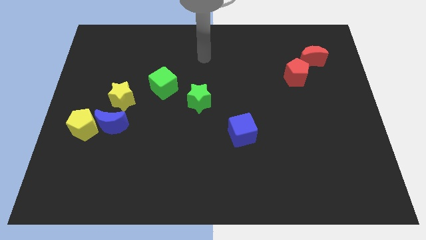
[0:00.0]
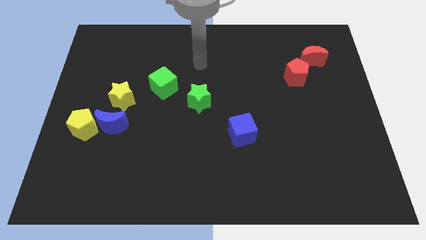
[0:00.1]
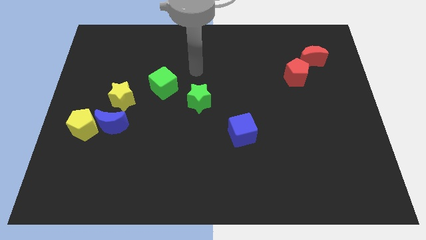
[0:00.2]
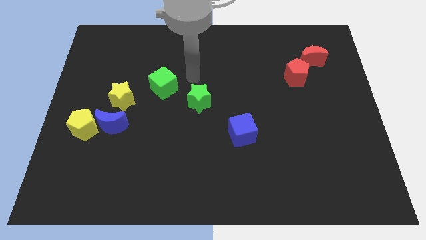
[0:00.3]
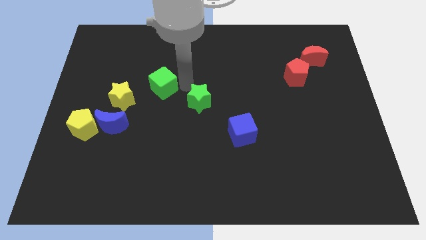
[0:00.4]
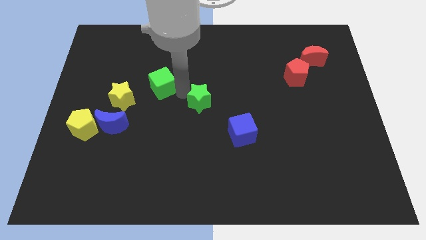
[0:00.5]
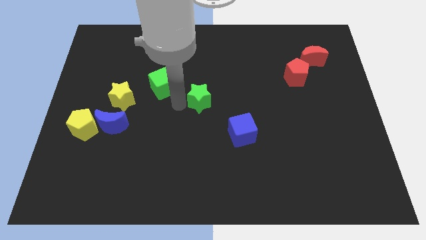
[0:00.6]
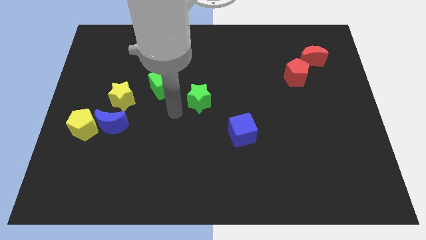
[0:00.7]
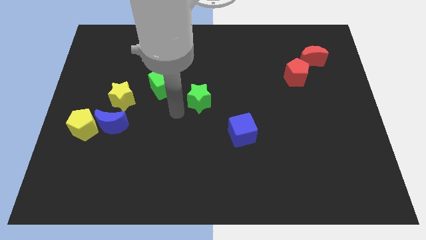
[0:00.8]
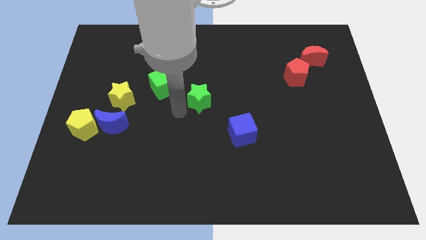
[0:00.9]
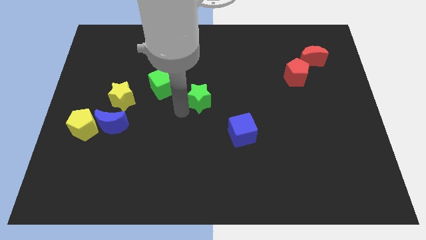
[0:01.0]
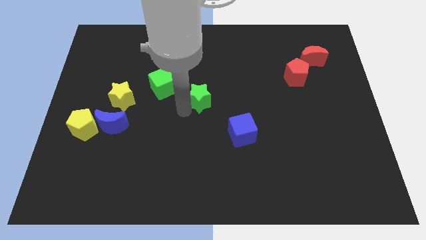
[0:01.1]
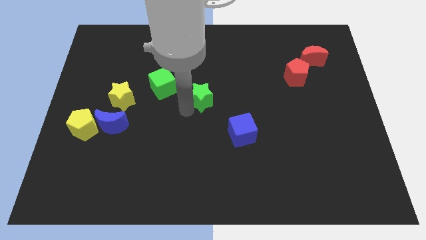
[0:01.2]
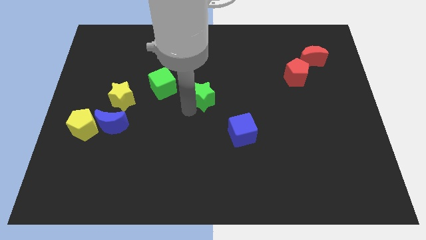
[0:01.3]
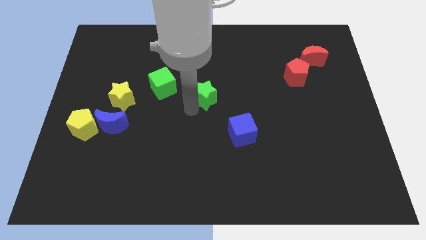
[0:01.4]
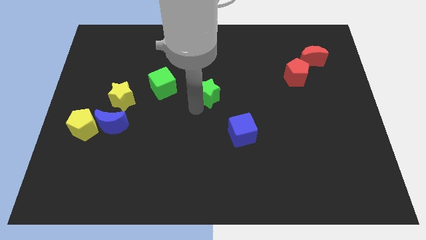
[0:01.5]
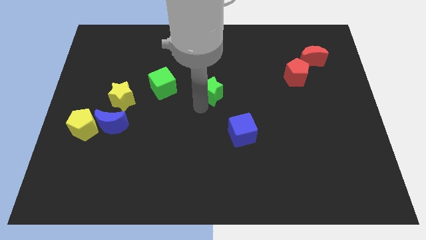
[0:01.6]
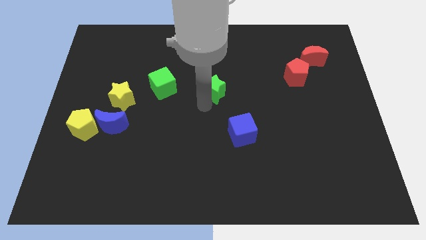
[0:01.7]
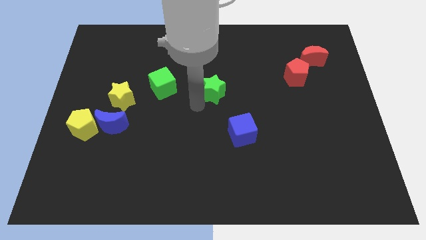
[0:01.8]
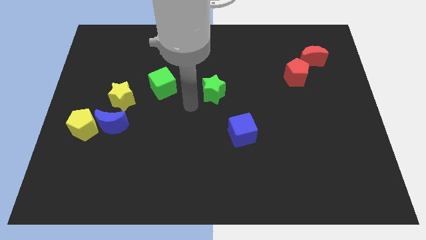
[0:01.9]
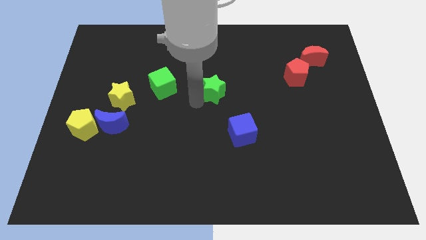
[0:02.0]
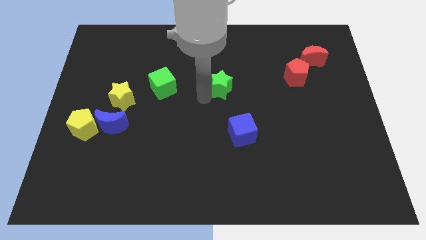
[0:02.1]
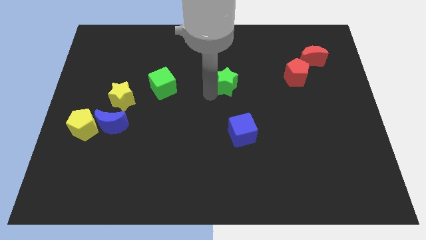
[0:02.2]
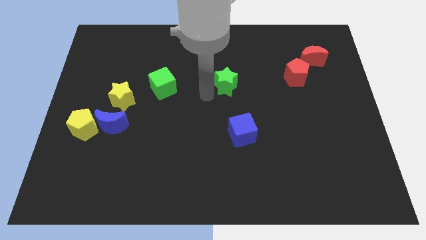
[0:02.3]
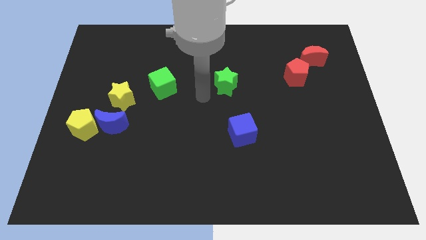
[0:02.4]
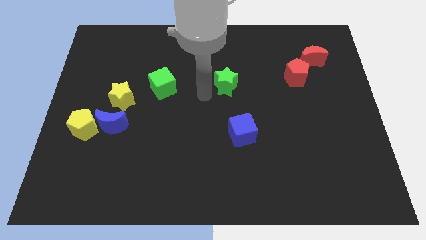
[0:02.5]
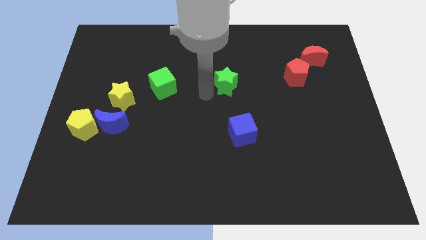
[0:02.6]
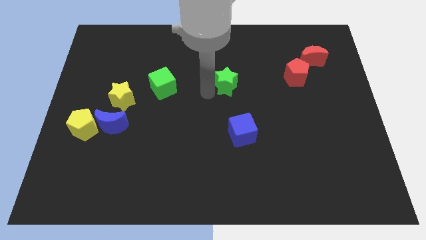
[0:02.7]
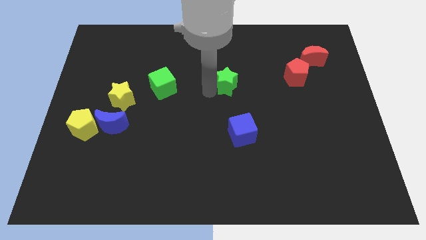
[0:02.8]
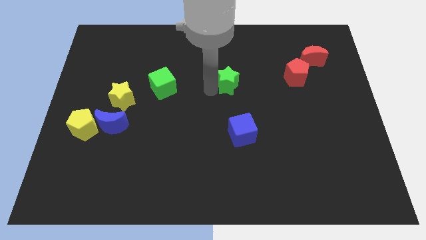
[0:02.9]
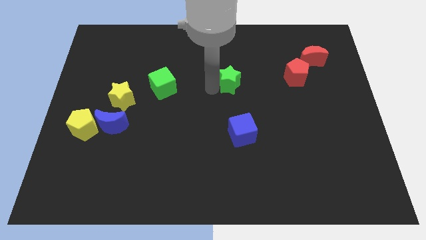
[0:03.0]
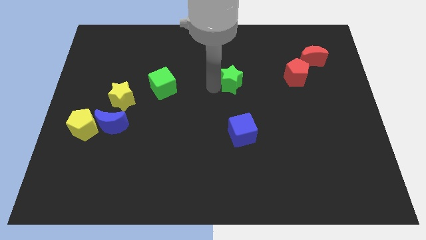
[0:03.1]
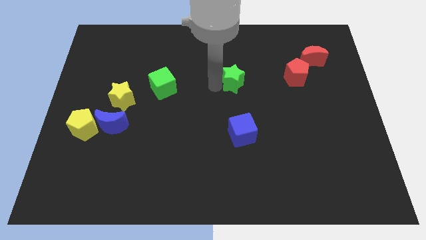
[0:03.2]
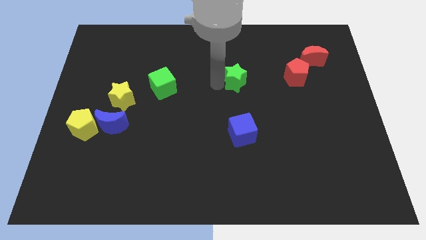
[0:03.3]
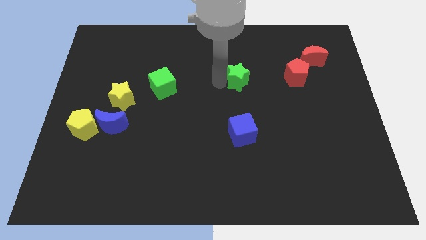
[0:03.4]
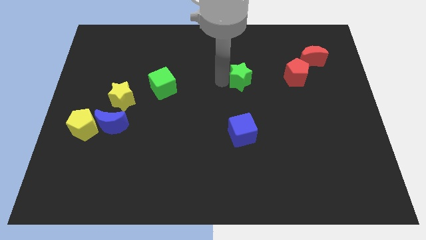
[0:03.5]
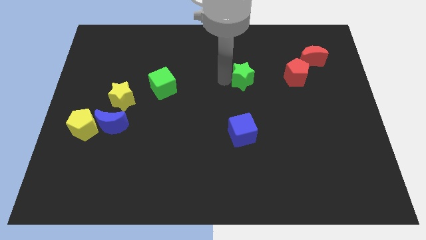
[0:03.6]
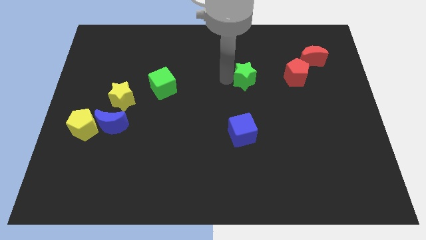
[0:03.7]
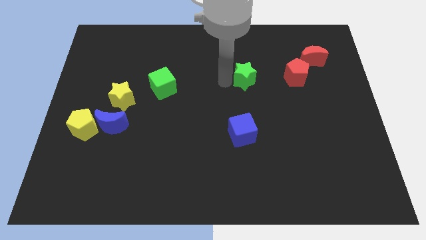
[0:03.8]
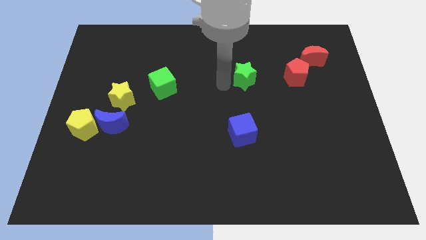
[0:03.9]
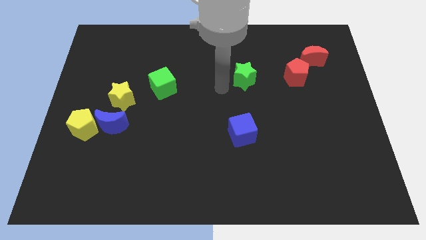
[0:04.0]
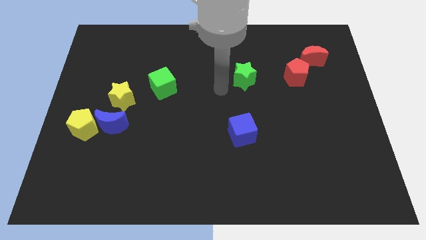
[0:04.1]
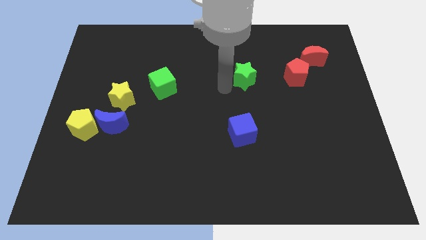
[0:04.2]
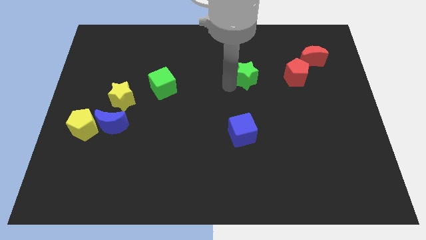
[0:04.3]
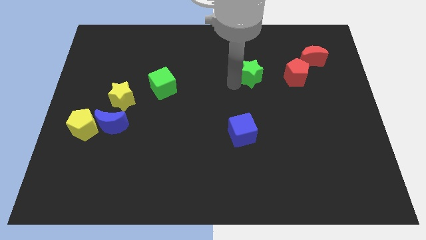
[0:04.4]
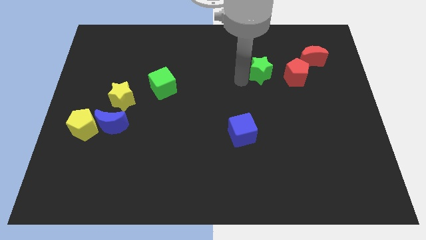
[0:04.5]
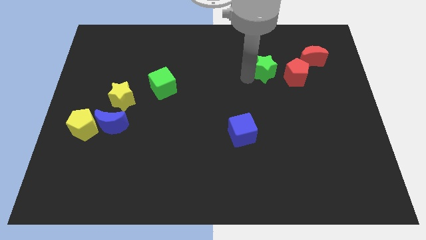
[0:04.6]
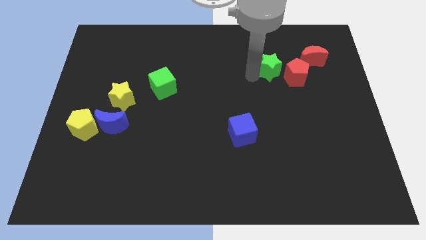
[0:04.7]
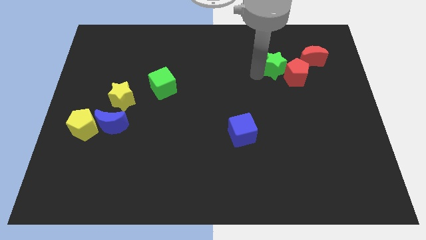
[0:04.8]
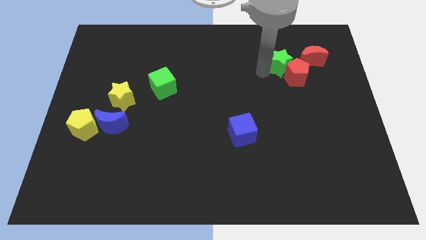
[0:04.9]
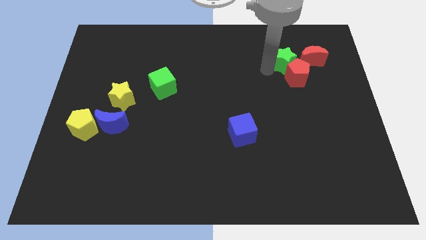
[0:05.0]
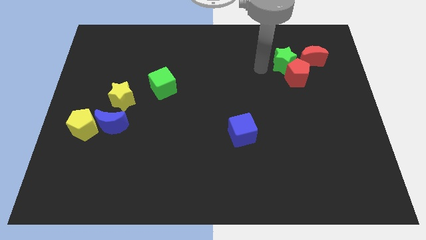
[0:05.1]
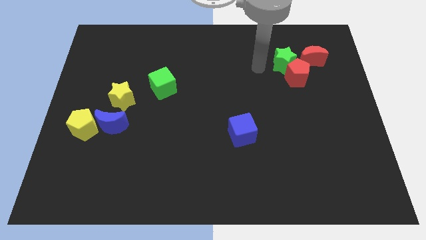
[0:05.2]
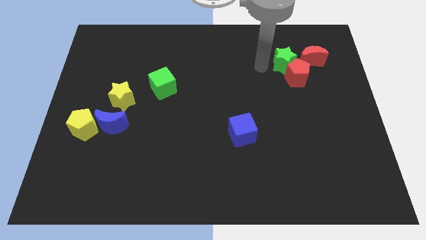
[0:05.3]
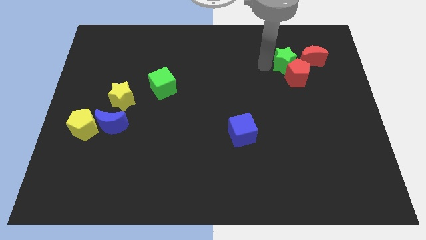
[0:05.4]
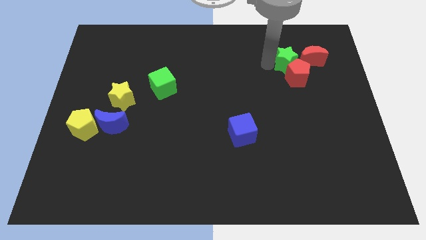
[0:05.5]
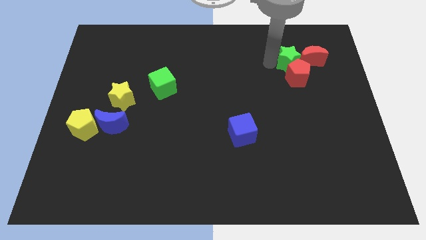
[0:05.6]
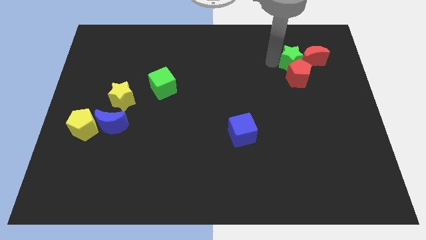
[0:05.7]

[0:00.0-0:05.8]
push the green star close to the red moon

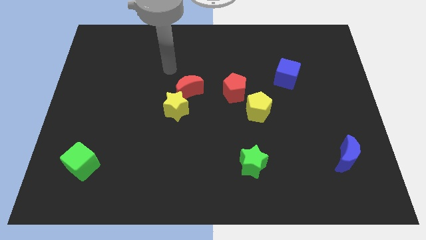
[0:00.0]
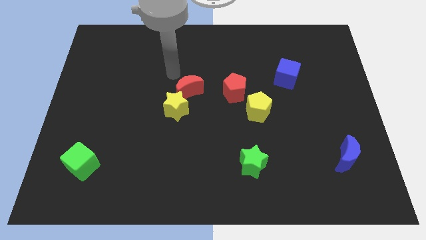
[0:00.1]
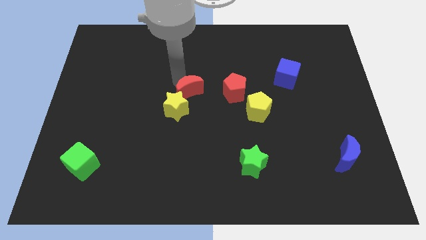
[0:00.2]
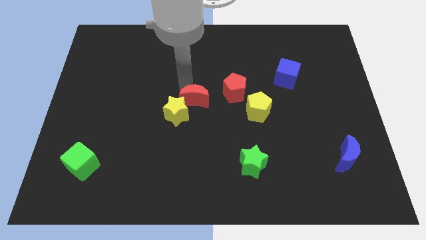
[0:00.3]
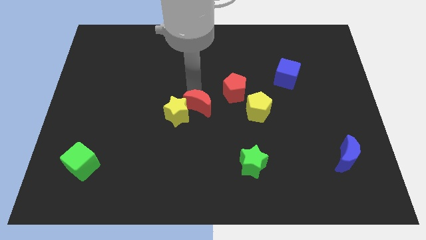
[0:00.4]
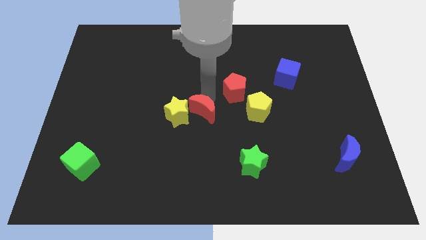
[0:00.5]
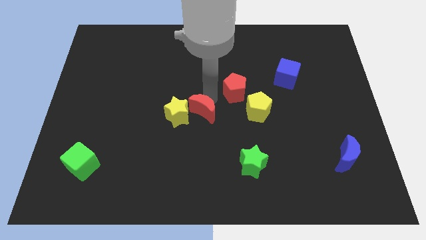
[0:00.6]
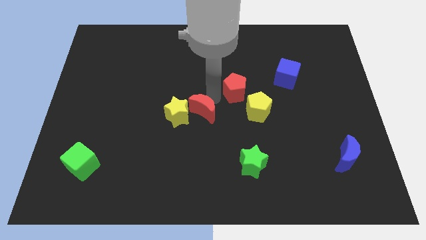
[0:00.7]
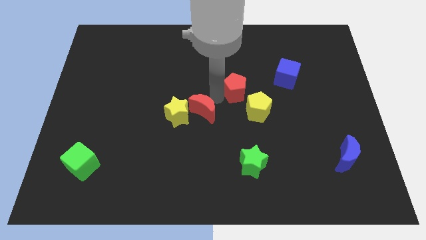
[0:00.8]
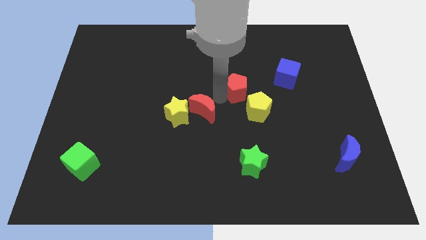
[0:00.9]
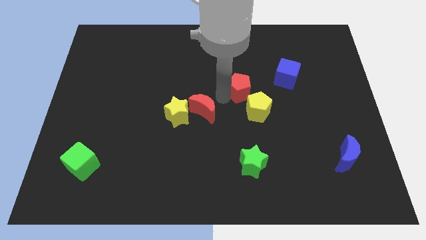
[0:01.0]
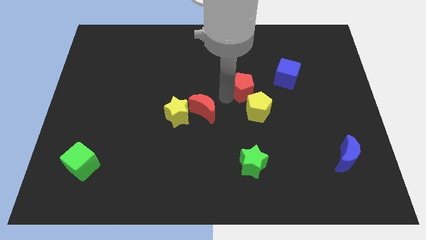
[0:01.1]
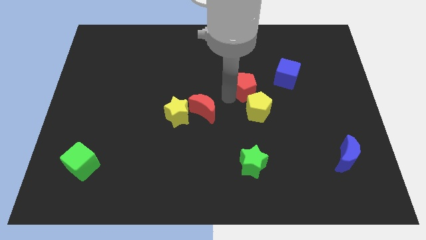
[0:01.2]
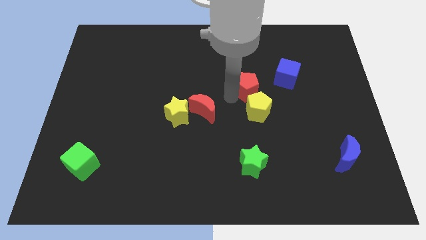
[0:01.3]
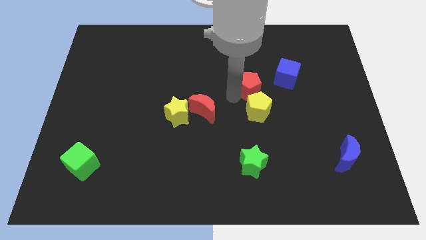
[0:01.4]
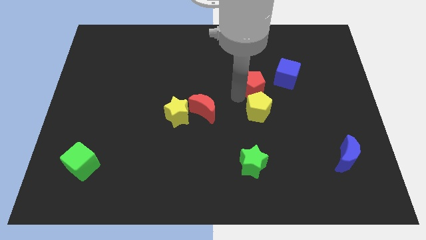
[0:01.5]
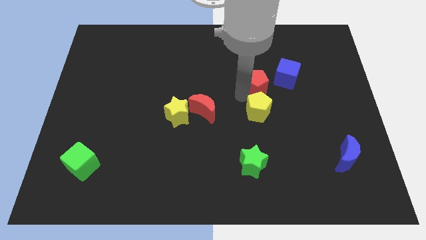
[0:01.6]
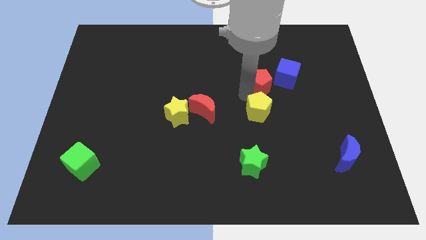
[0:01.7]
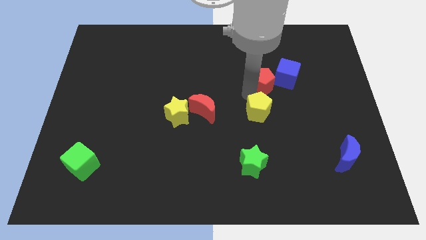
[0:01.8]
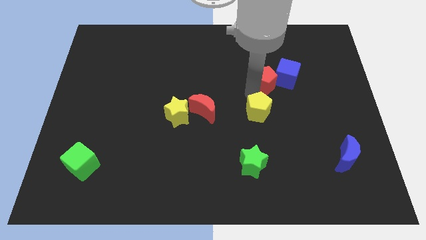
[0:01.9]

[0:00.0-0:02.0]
slide the red pentagon towards the blue cube
